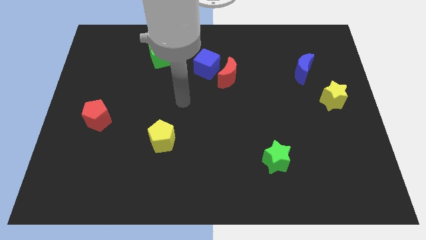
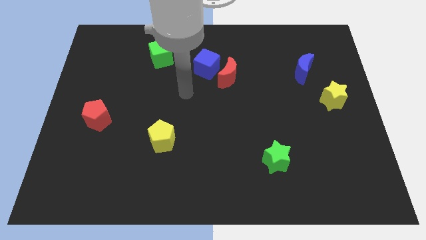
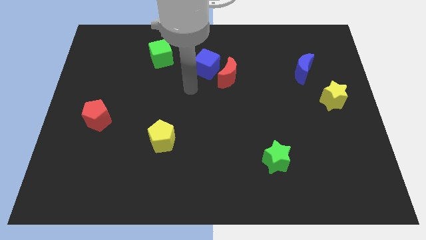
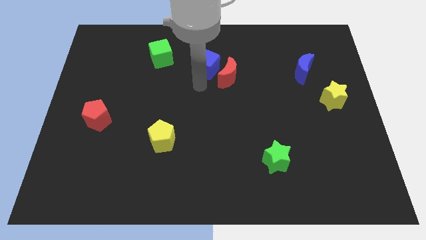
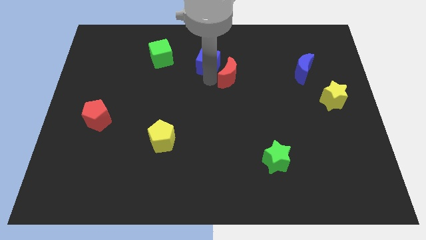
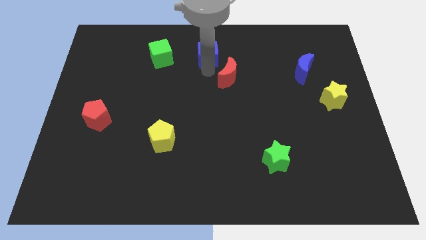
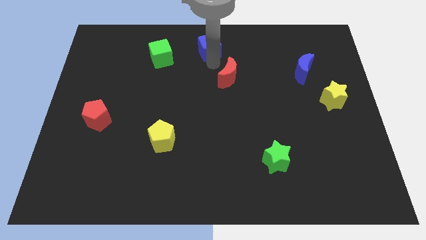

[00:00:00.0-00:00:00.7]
pull the red moon apart from the blue cube

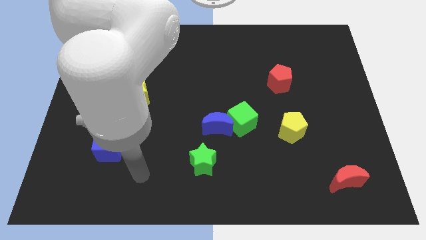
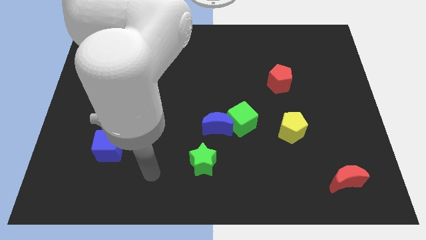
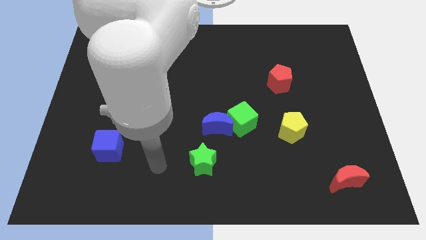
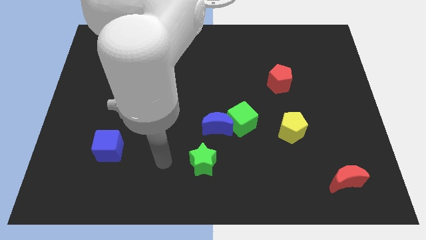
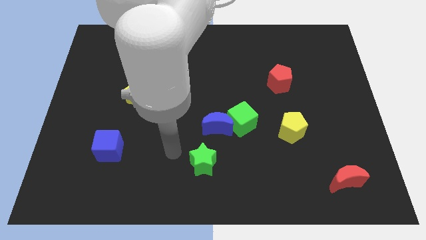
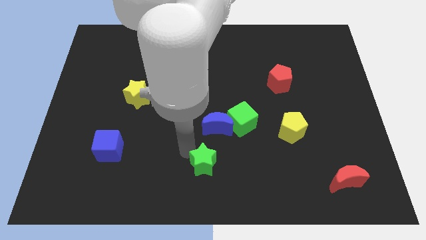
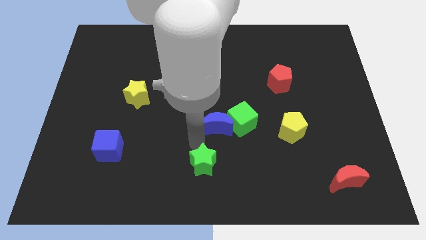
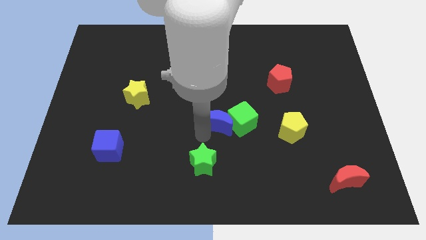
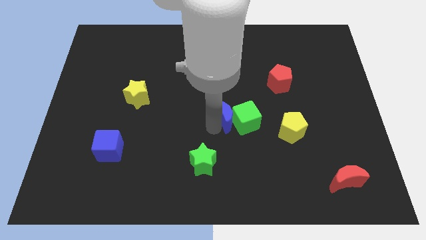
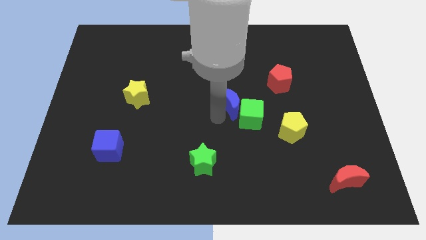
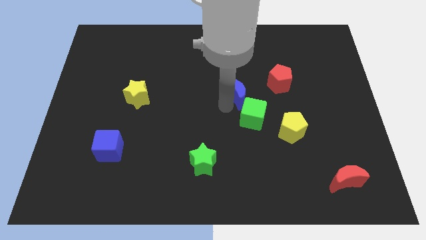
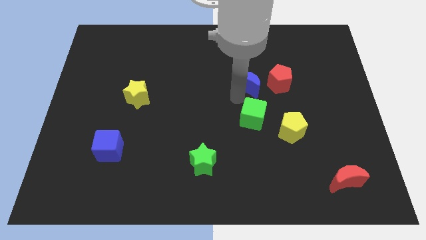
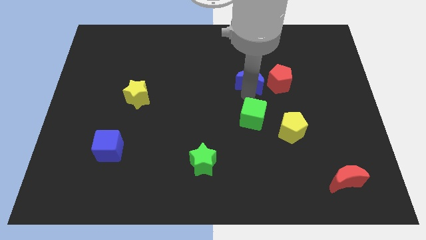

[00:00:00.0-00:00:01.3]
pull the green cube apart from the blue moon

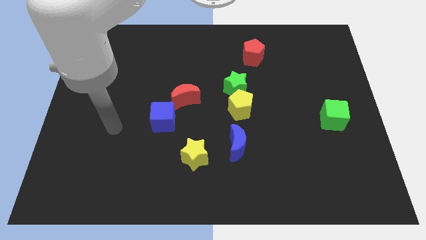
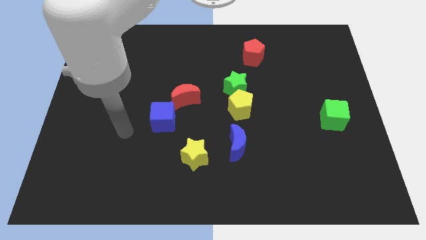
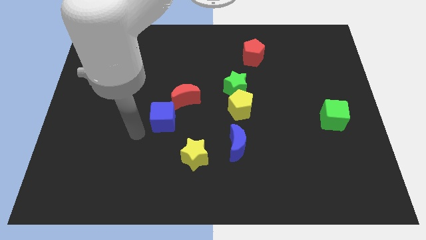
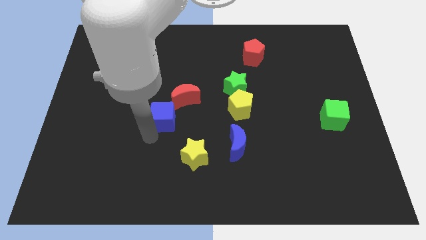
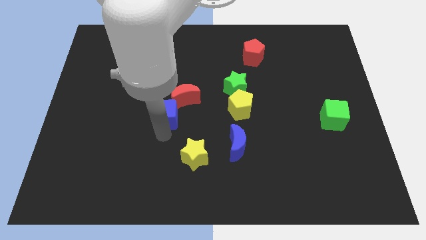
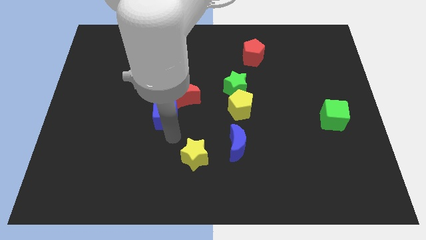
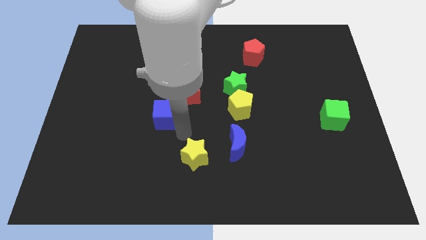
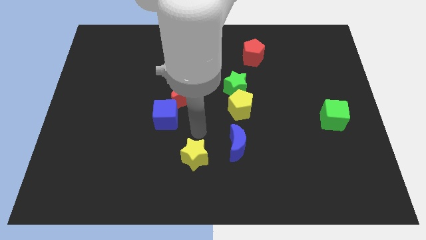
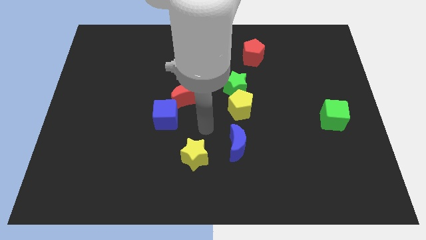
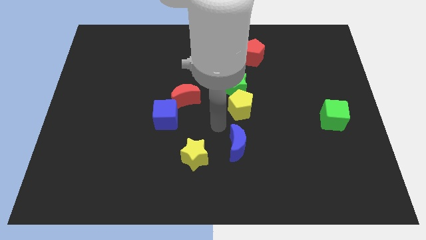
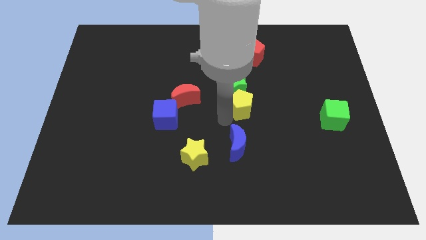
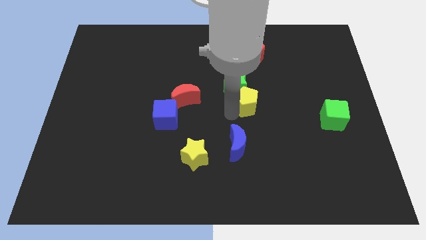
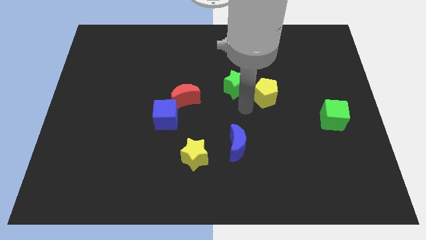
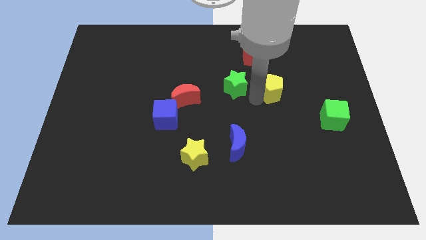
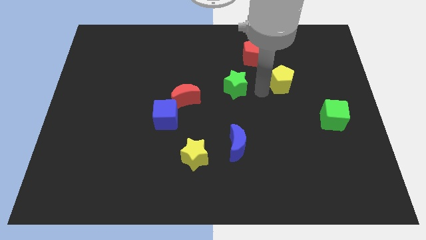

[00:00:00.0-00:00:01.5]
move the green star away from the yellow pentagon

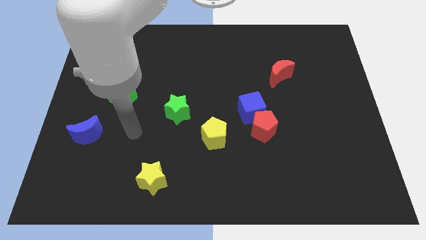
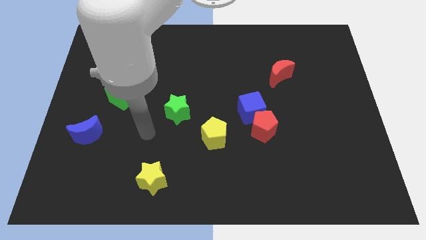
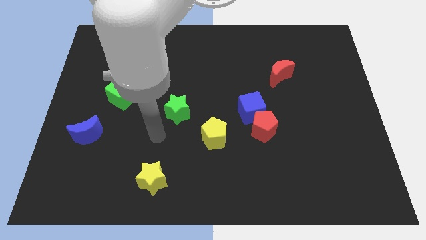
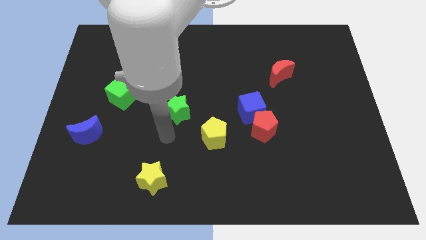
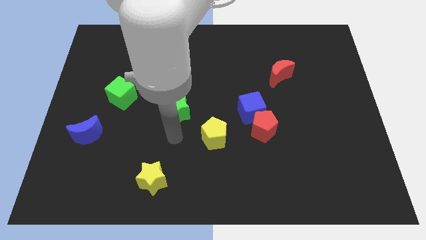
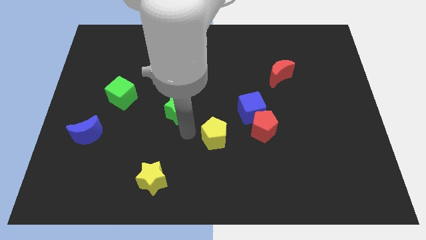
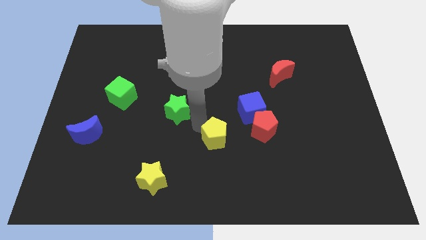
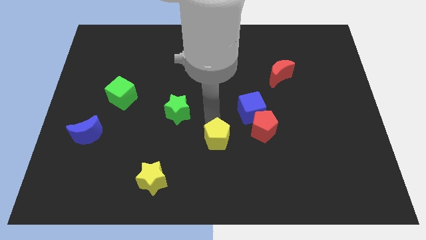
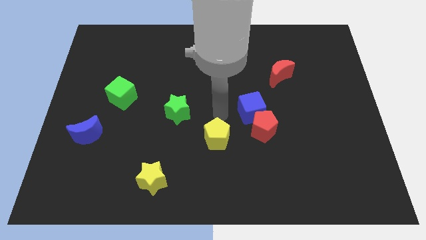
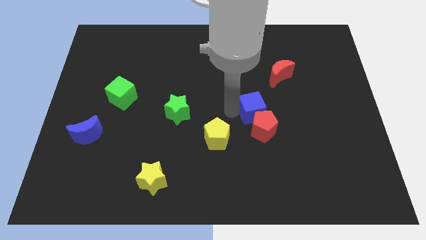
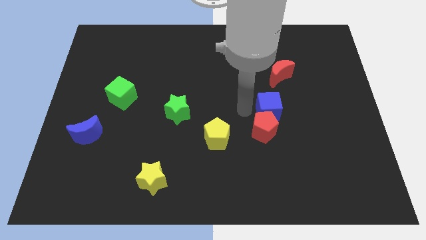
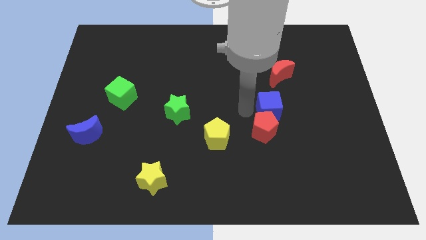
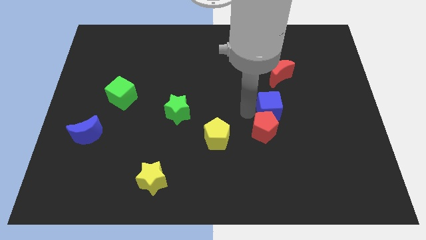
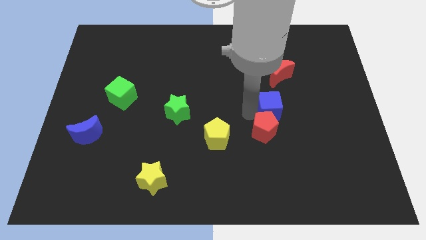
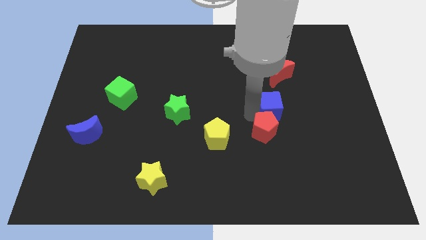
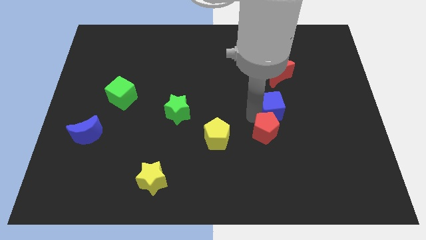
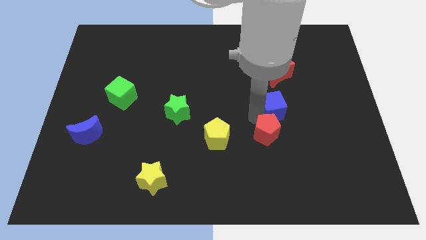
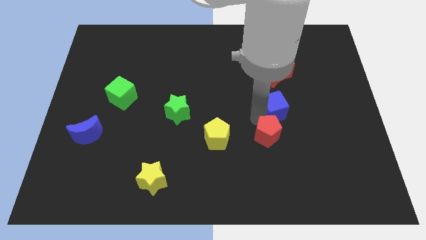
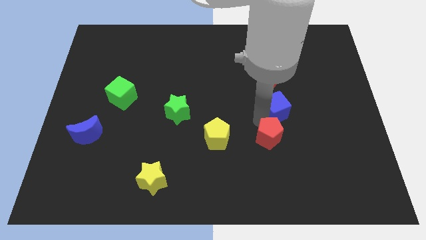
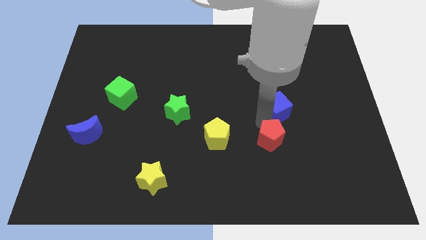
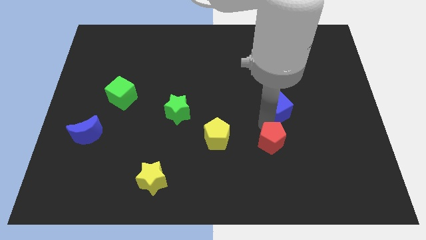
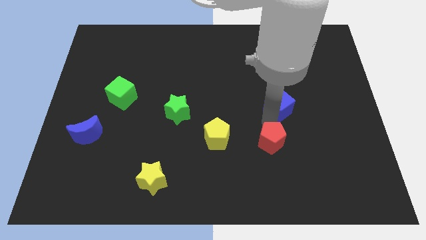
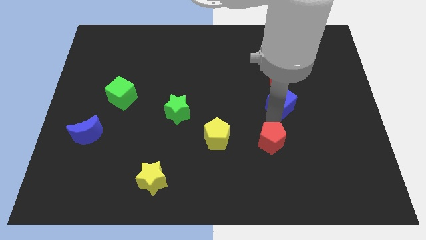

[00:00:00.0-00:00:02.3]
move the red pentagon away from the blue cube

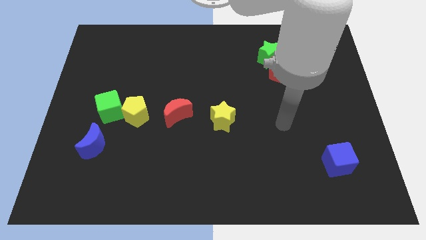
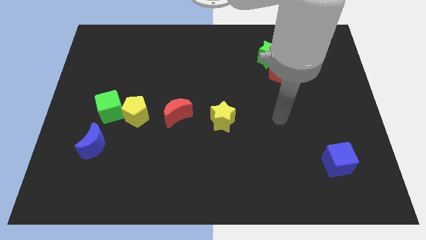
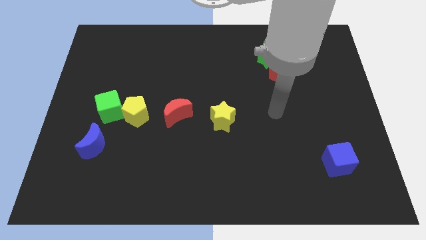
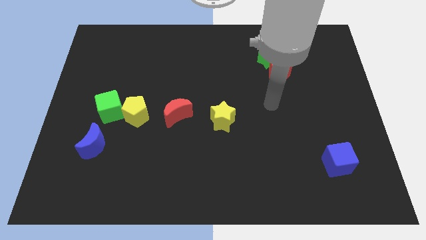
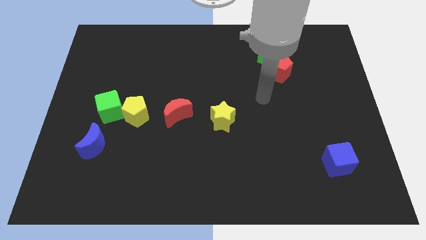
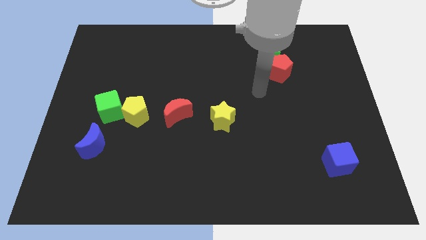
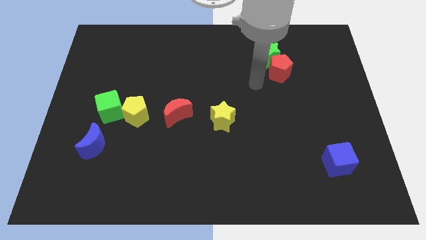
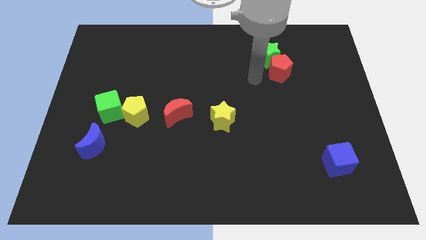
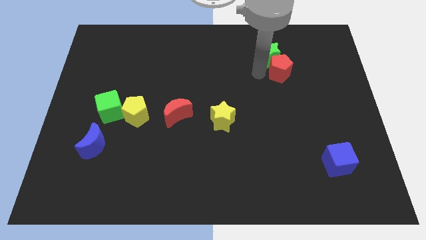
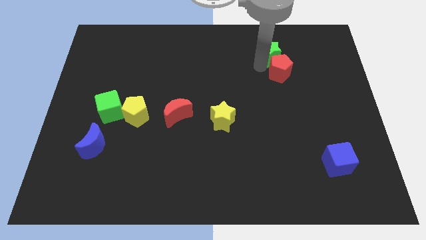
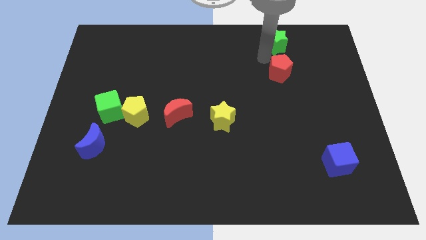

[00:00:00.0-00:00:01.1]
move the red pentagon away from the green star

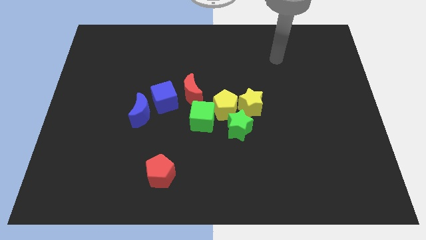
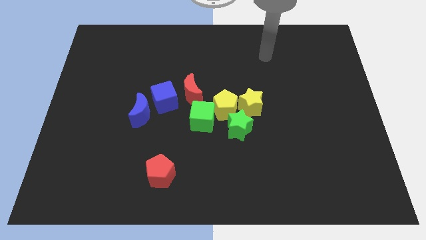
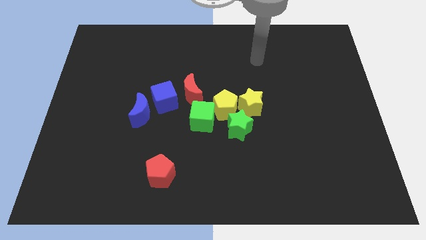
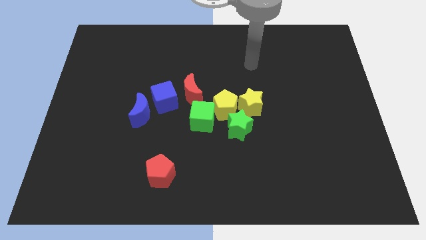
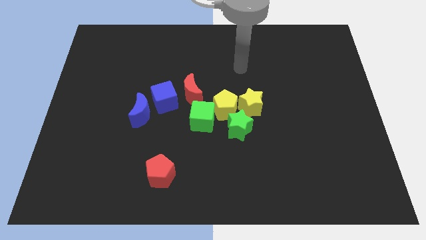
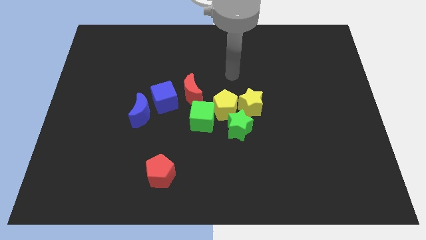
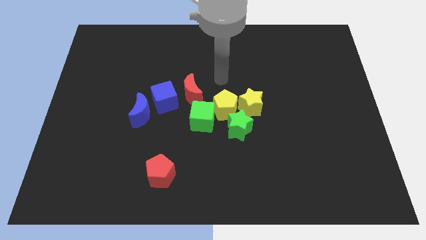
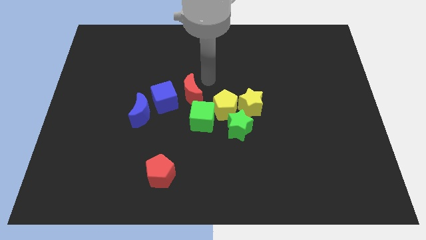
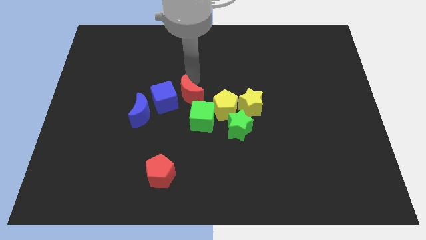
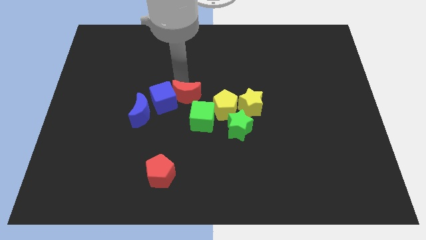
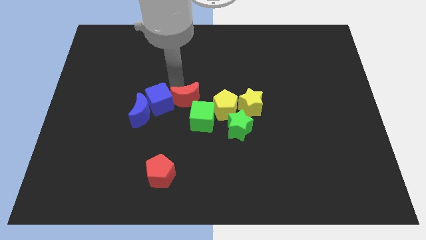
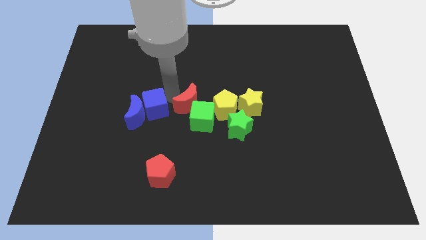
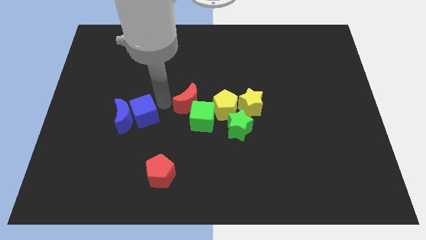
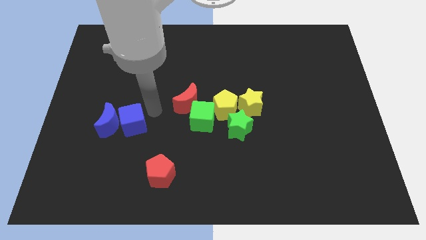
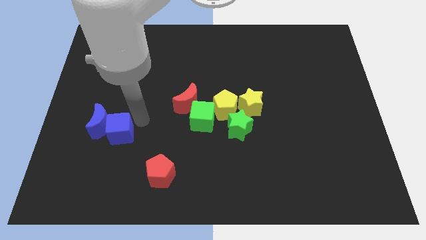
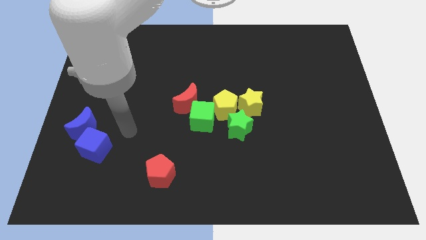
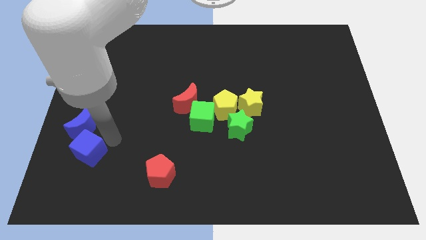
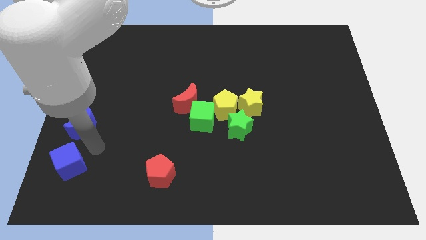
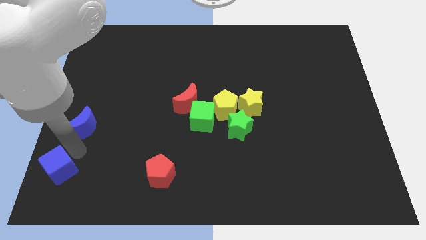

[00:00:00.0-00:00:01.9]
separate the blue moon from the blue cube

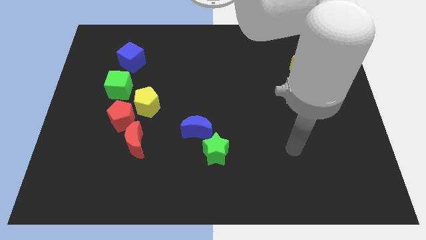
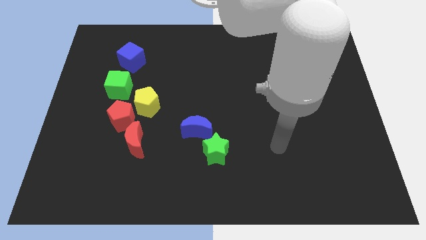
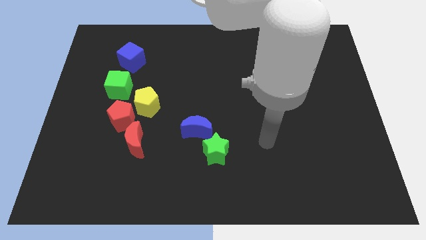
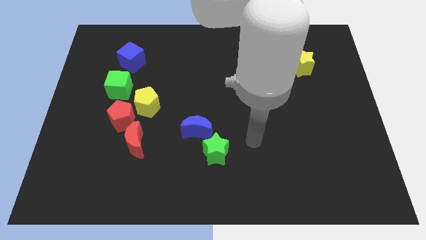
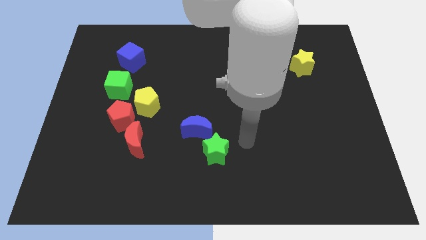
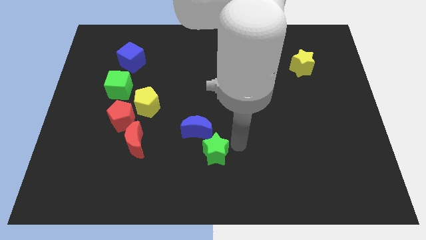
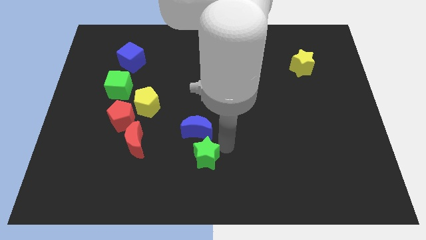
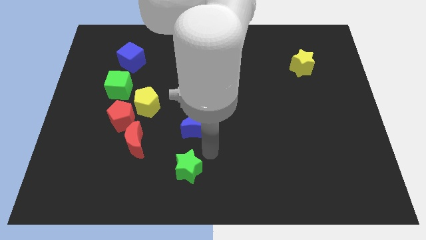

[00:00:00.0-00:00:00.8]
move the blue moon away from the green star
